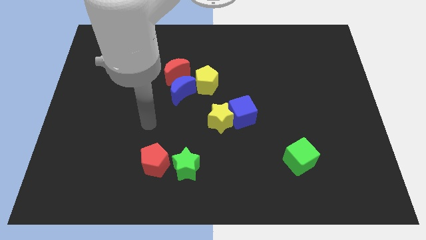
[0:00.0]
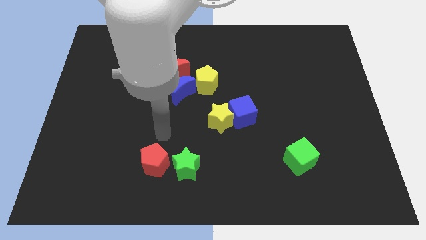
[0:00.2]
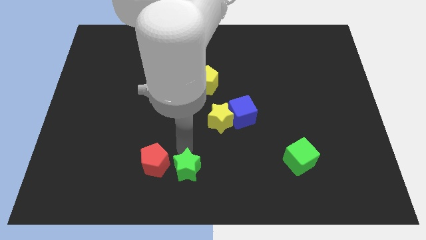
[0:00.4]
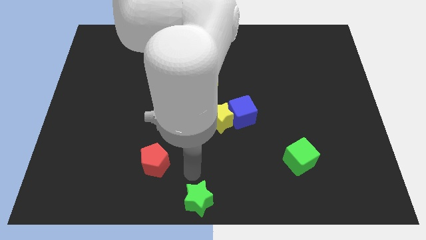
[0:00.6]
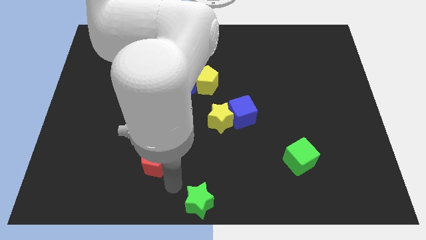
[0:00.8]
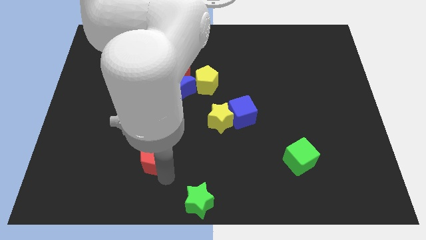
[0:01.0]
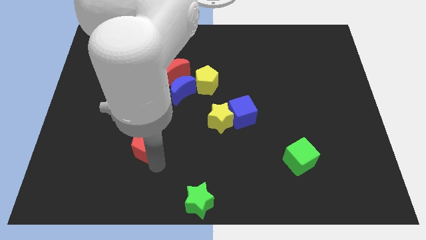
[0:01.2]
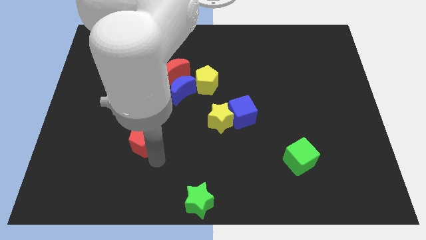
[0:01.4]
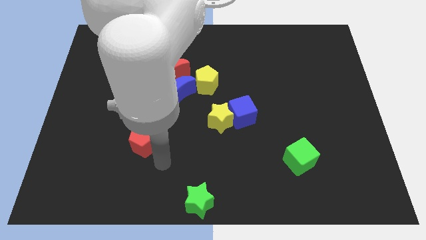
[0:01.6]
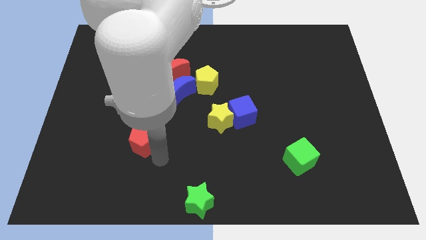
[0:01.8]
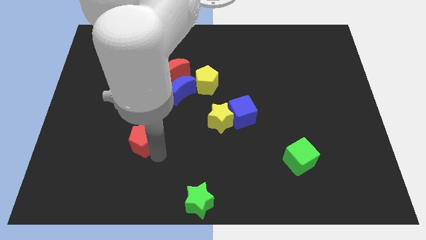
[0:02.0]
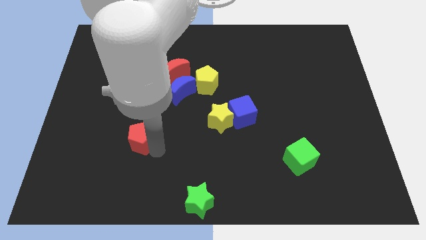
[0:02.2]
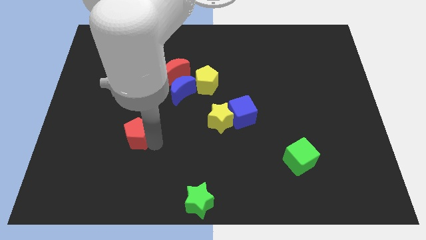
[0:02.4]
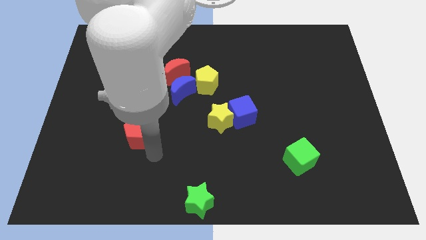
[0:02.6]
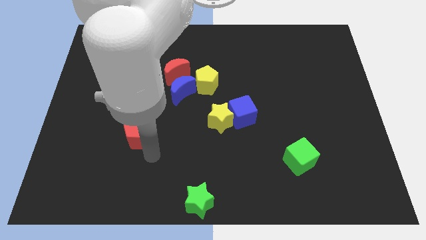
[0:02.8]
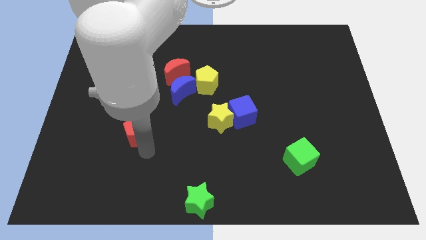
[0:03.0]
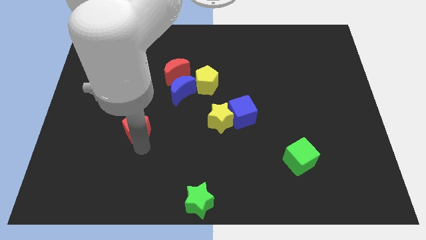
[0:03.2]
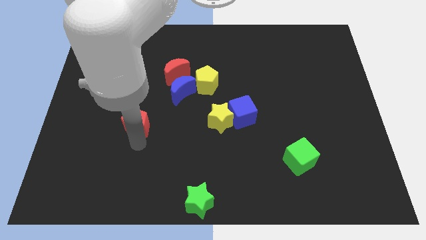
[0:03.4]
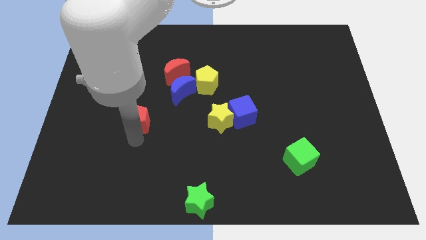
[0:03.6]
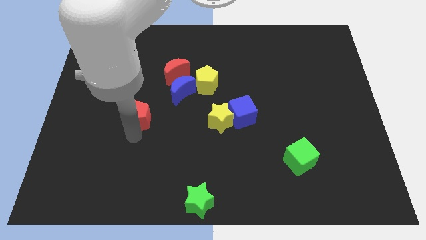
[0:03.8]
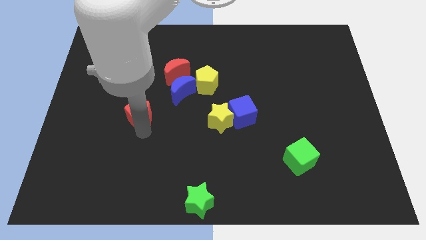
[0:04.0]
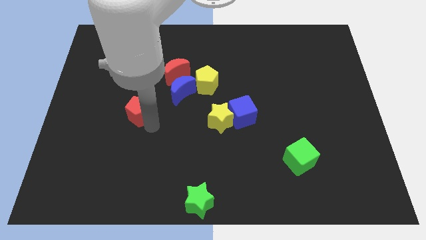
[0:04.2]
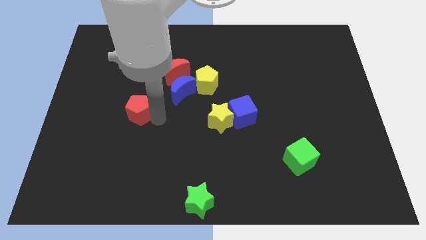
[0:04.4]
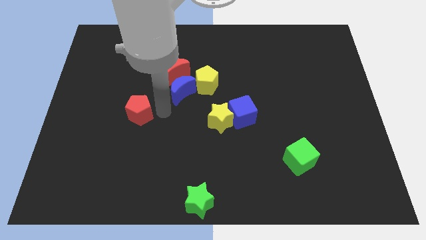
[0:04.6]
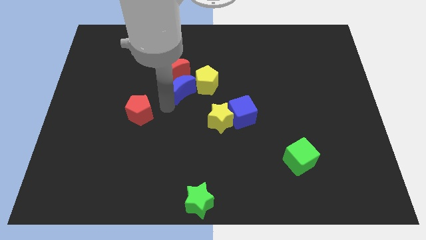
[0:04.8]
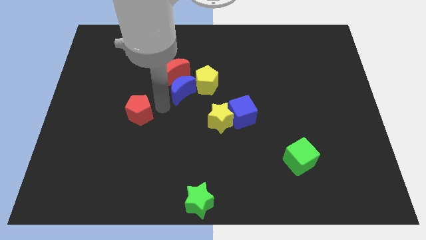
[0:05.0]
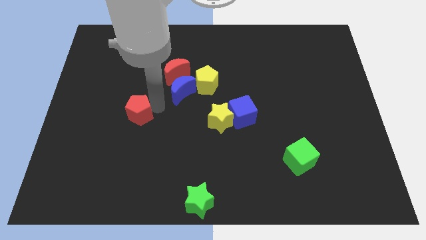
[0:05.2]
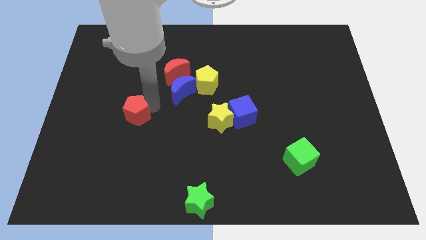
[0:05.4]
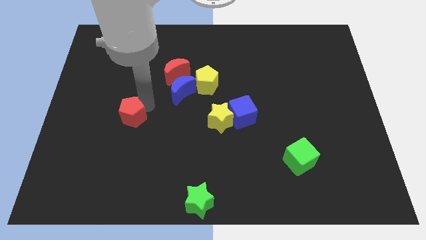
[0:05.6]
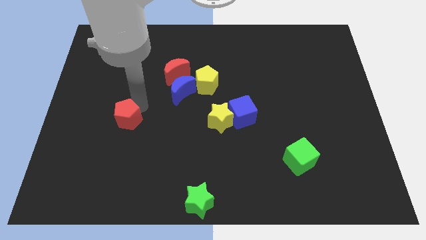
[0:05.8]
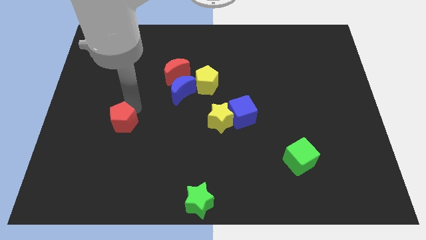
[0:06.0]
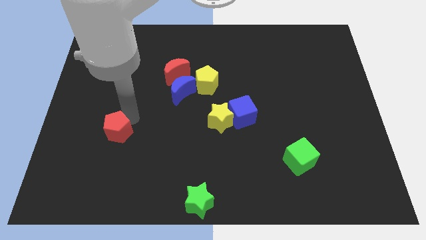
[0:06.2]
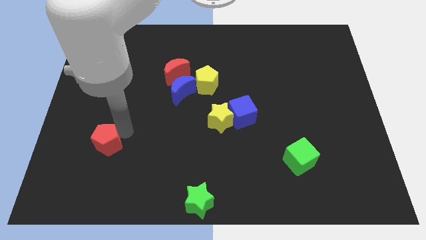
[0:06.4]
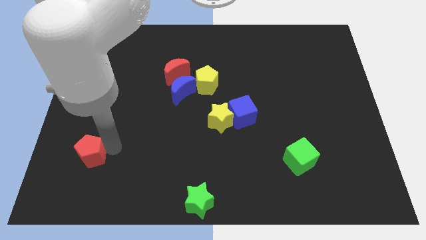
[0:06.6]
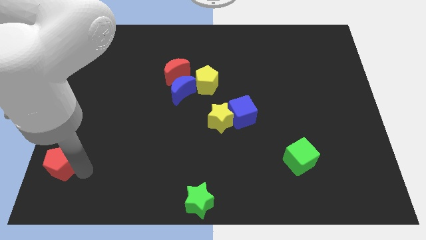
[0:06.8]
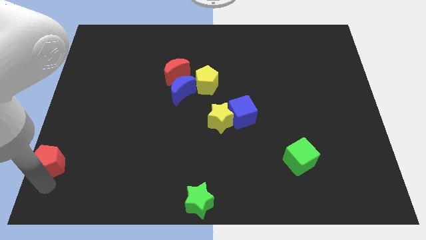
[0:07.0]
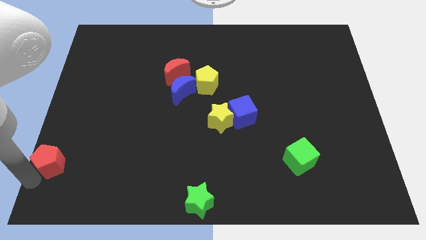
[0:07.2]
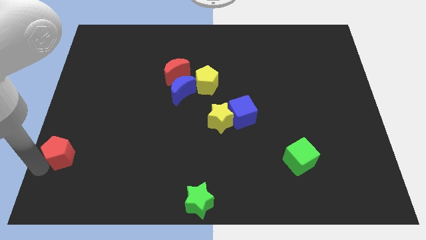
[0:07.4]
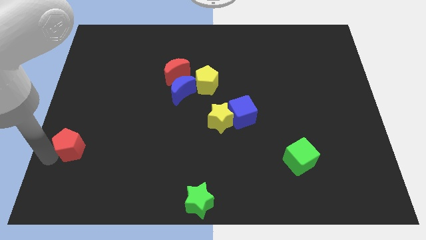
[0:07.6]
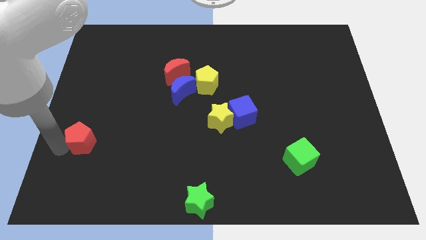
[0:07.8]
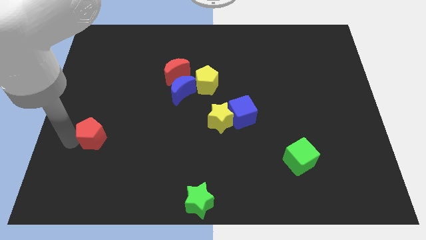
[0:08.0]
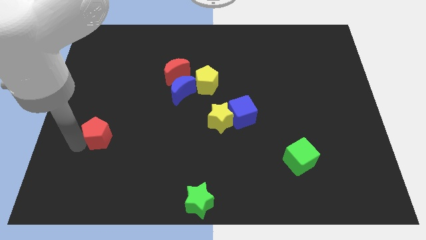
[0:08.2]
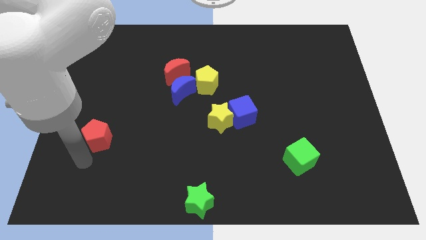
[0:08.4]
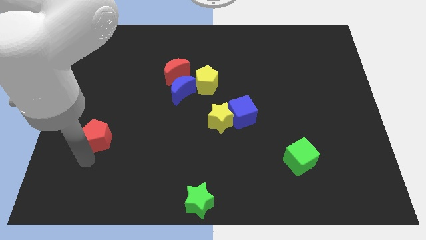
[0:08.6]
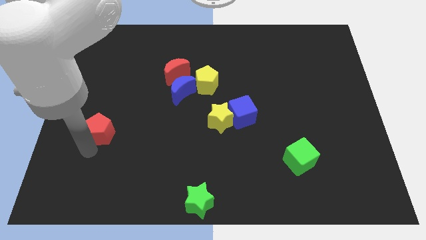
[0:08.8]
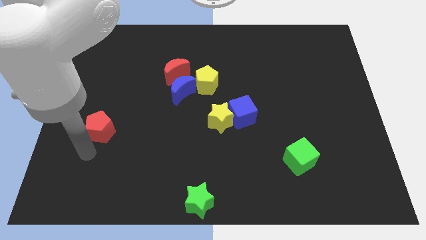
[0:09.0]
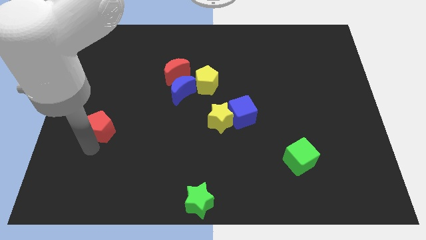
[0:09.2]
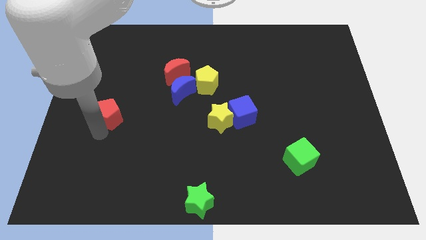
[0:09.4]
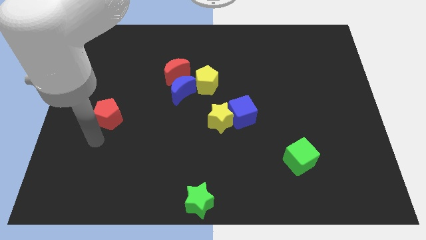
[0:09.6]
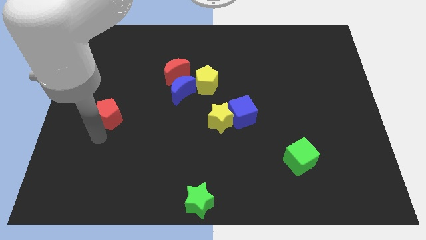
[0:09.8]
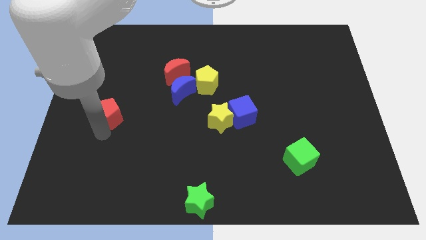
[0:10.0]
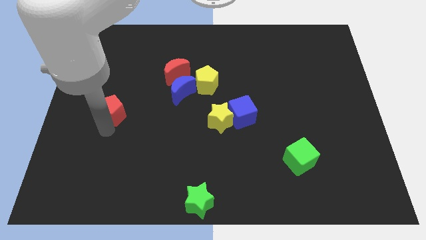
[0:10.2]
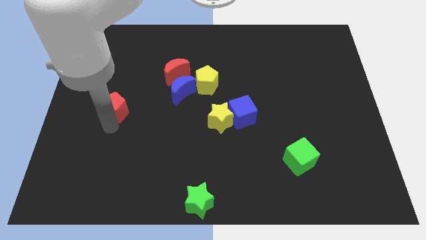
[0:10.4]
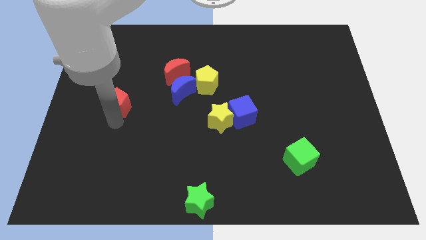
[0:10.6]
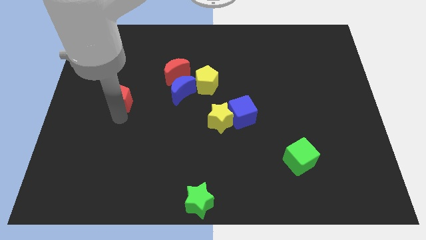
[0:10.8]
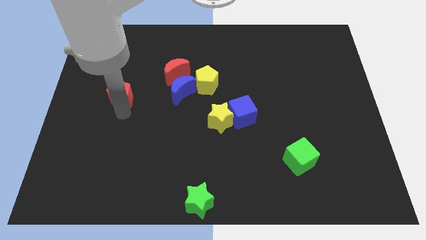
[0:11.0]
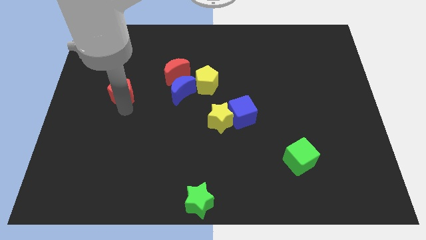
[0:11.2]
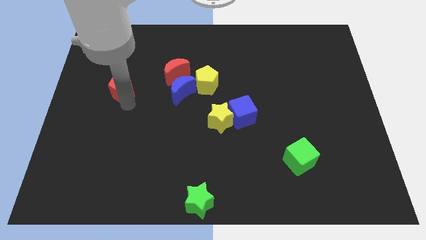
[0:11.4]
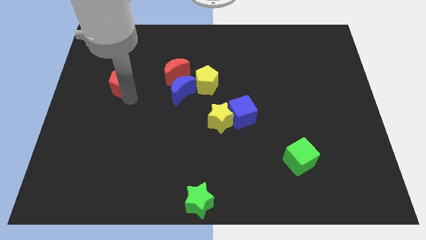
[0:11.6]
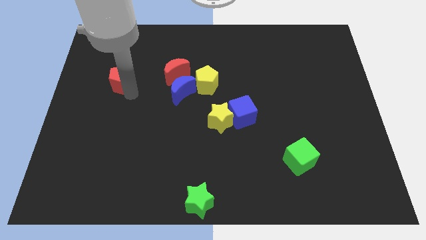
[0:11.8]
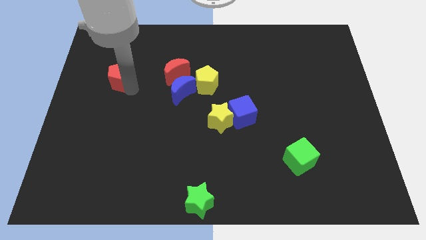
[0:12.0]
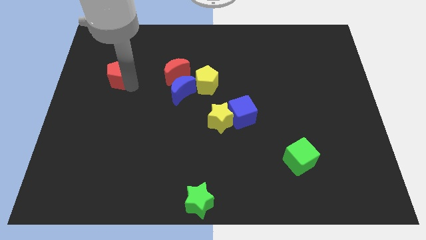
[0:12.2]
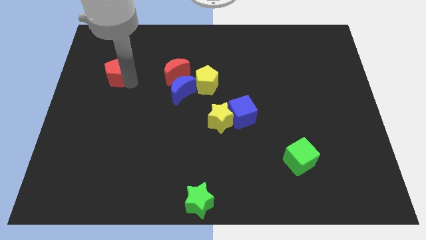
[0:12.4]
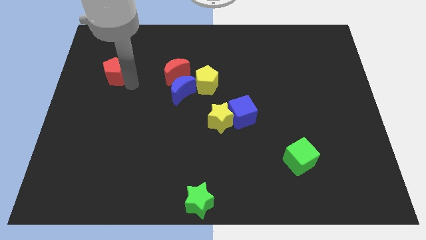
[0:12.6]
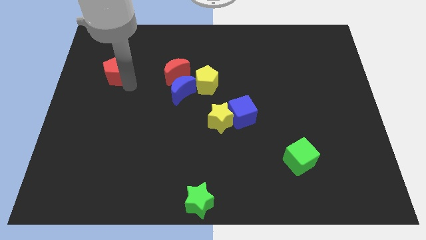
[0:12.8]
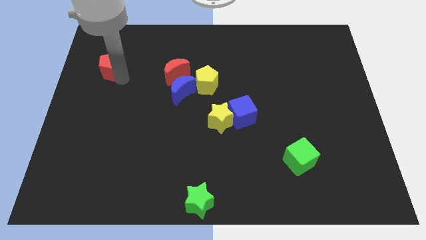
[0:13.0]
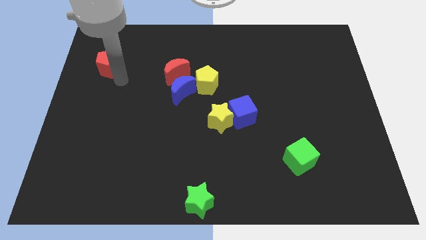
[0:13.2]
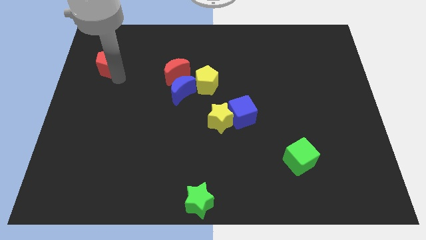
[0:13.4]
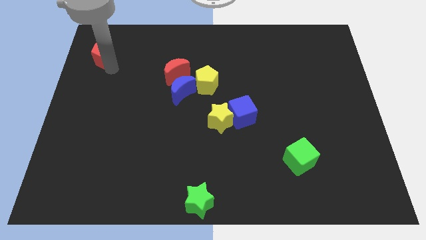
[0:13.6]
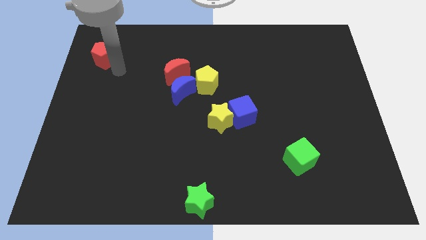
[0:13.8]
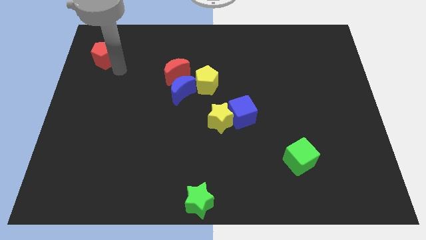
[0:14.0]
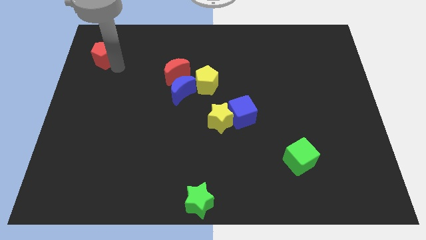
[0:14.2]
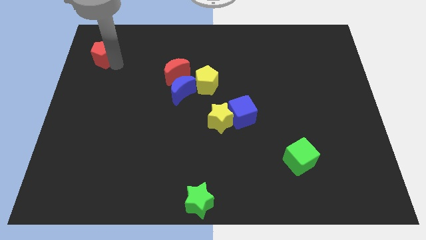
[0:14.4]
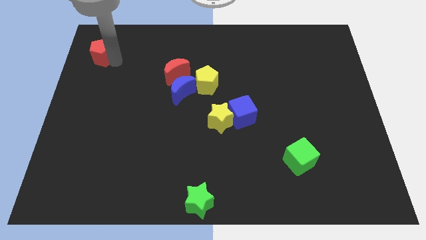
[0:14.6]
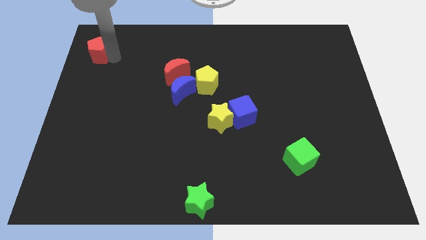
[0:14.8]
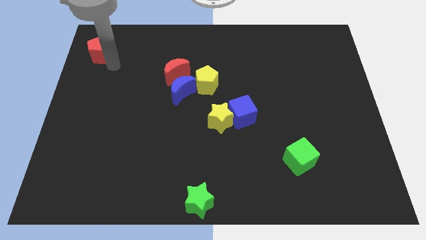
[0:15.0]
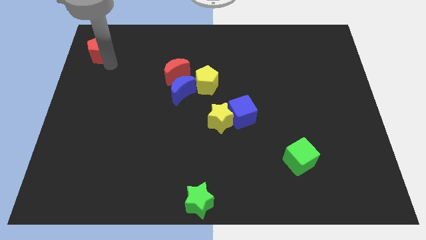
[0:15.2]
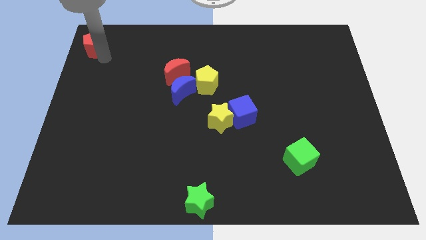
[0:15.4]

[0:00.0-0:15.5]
put the red pentagon to the top left of the board

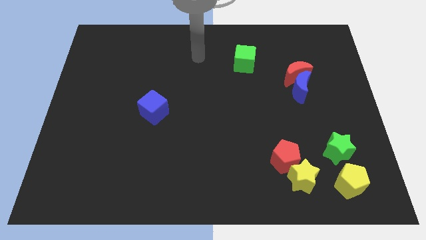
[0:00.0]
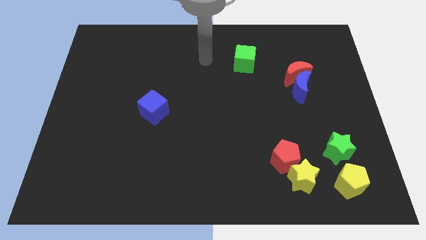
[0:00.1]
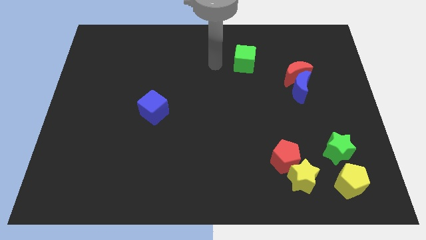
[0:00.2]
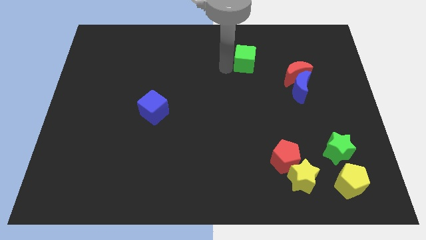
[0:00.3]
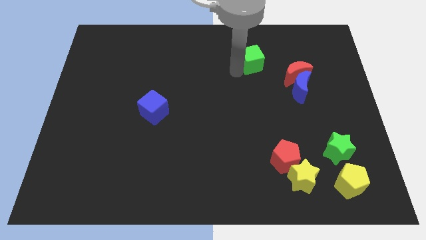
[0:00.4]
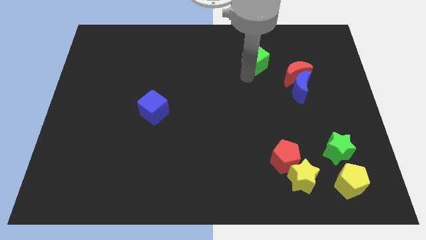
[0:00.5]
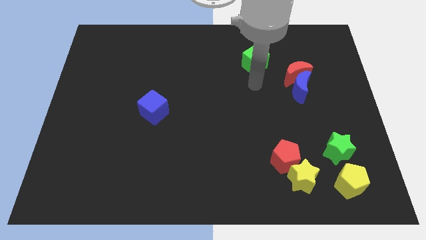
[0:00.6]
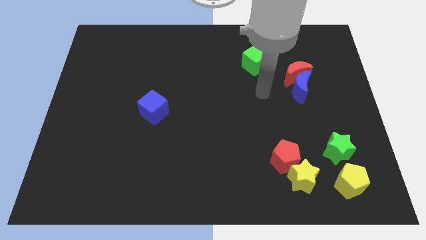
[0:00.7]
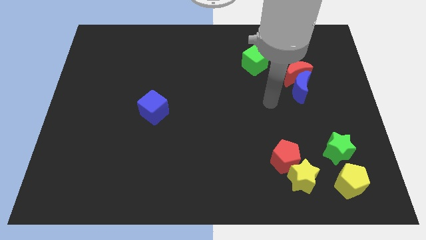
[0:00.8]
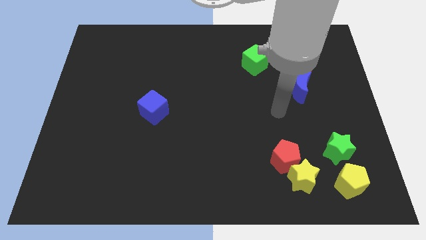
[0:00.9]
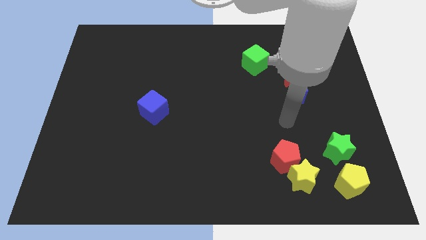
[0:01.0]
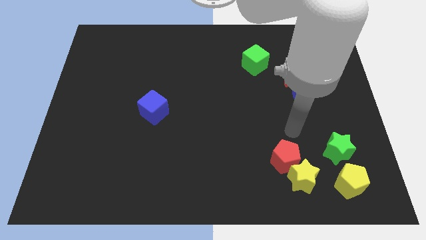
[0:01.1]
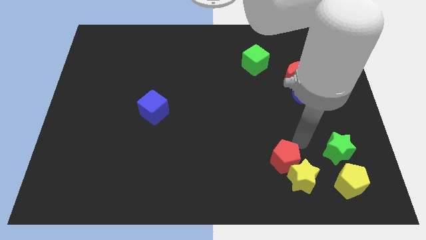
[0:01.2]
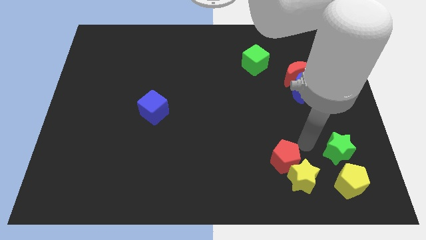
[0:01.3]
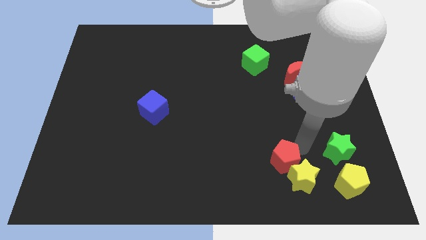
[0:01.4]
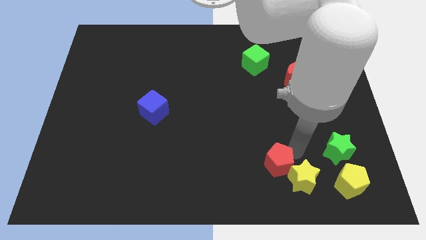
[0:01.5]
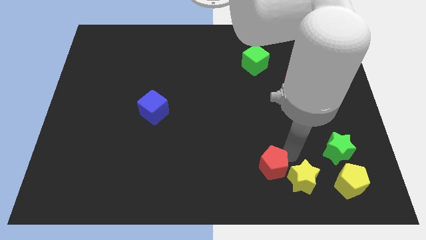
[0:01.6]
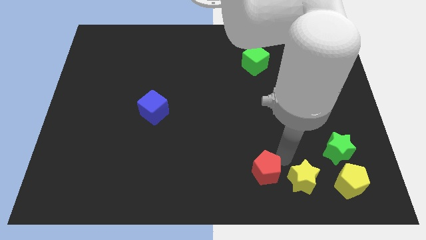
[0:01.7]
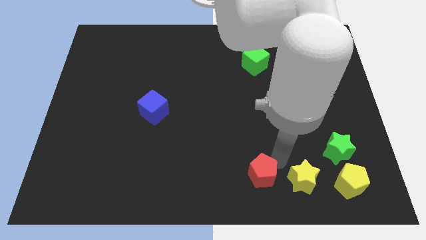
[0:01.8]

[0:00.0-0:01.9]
put the red pentagon to the bottom side
